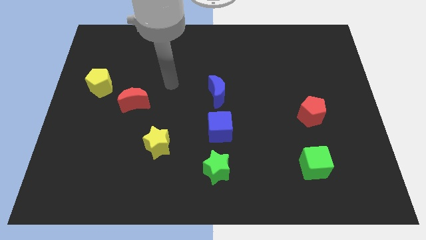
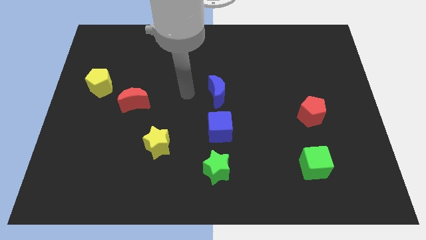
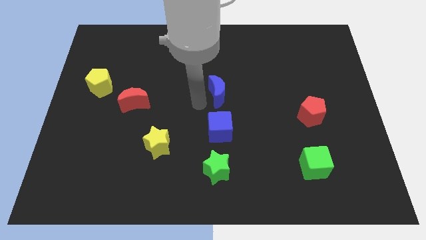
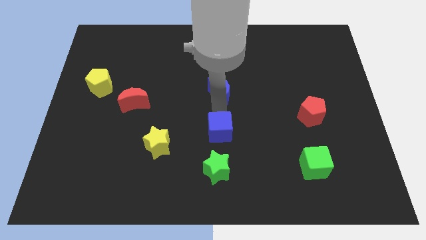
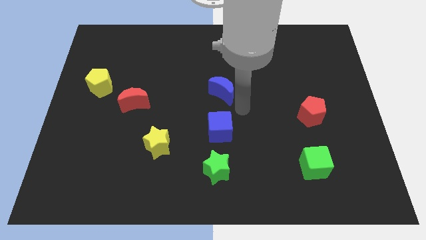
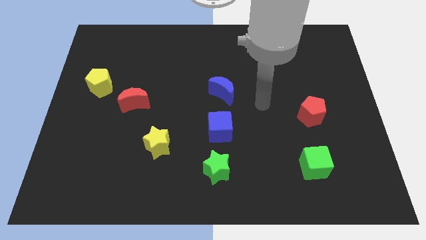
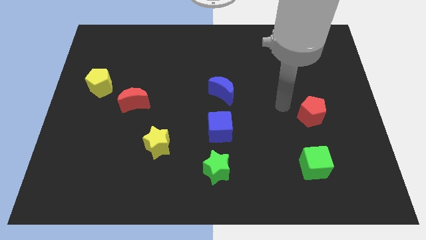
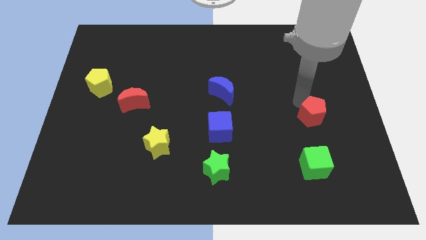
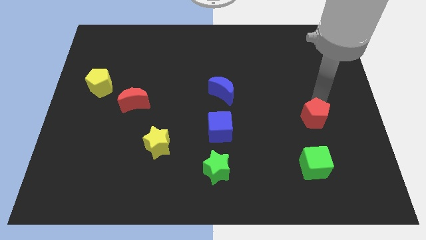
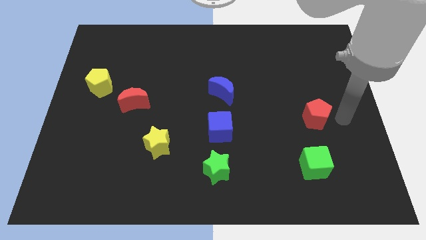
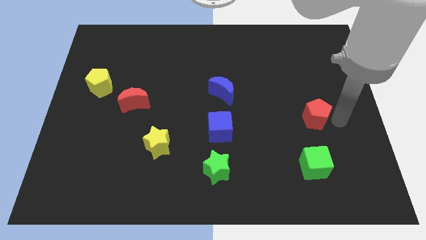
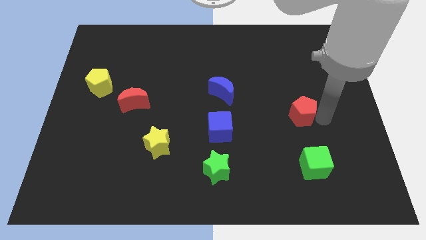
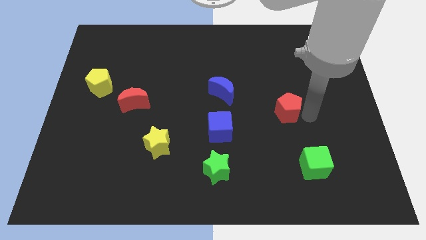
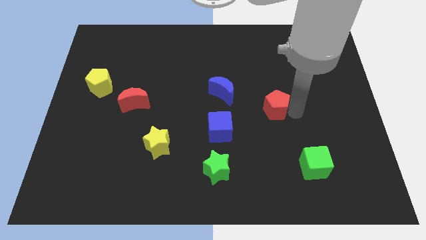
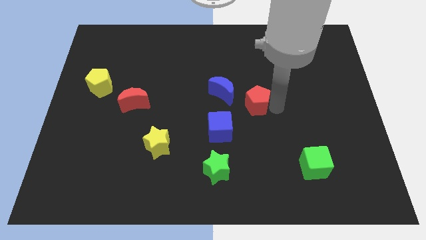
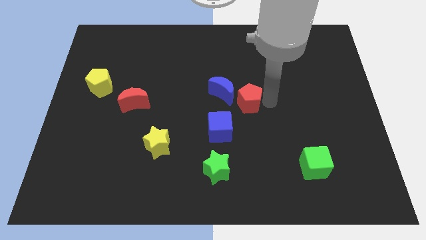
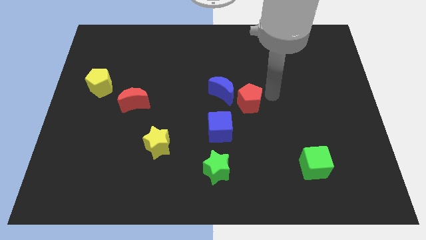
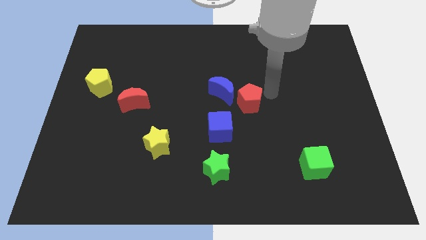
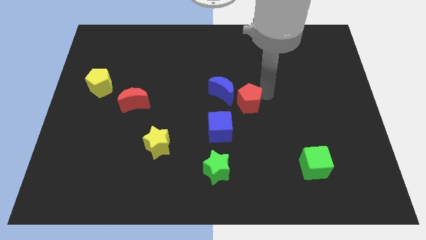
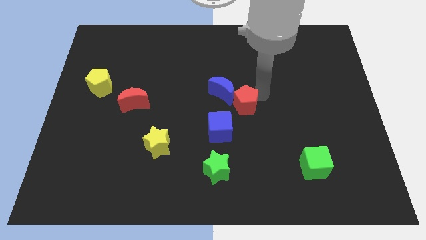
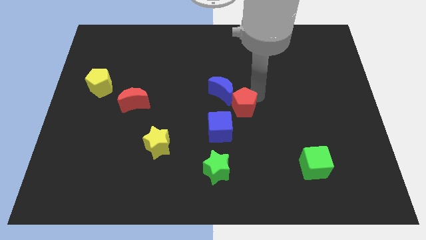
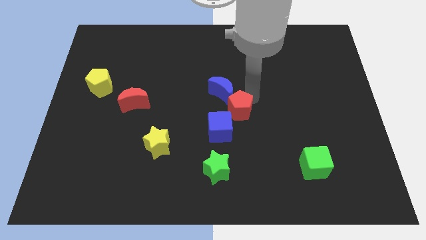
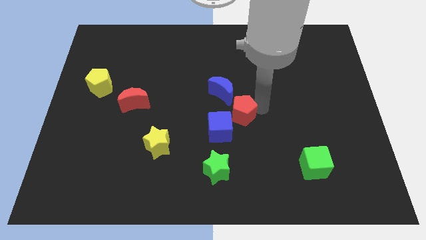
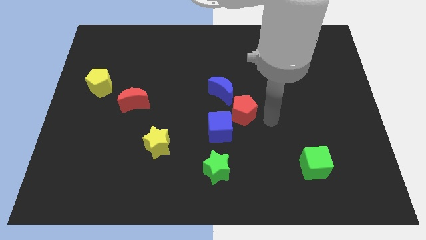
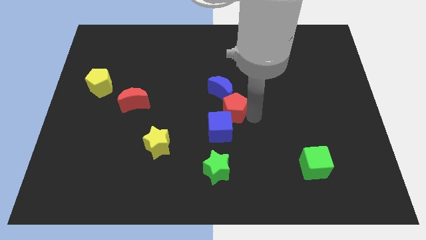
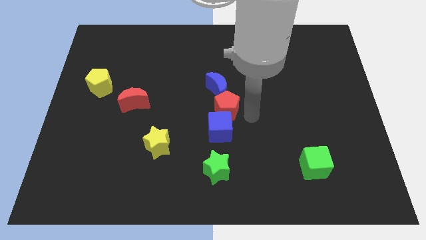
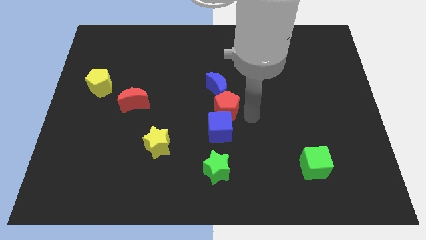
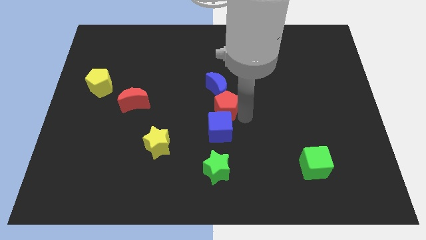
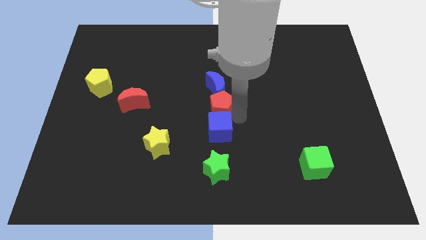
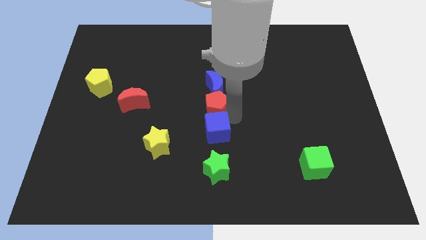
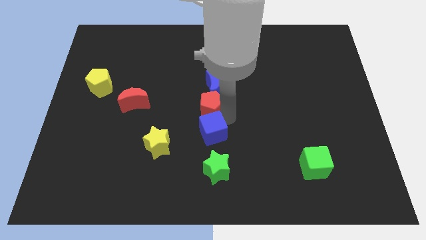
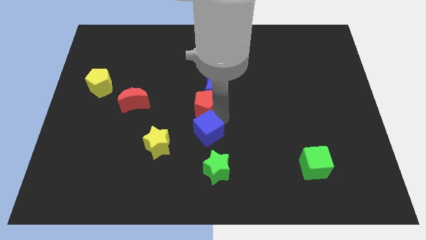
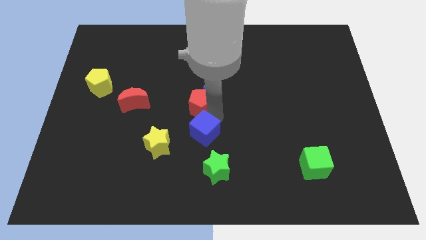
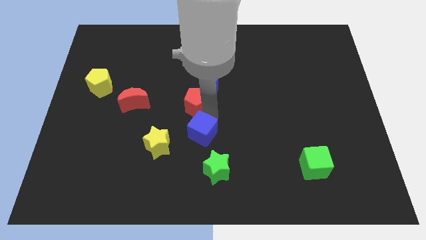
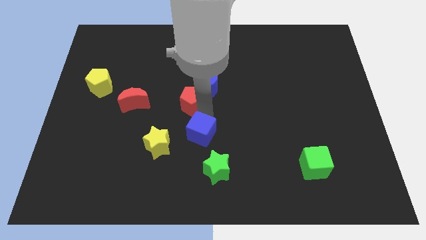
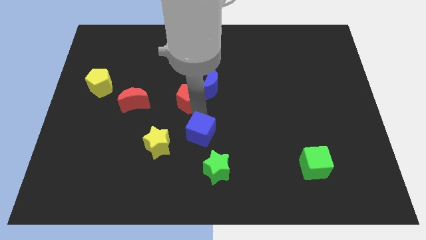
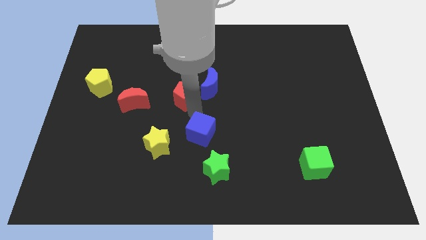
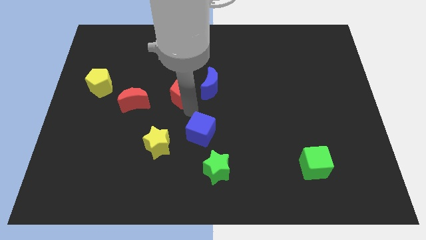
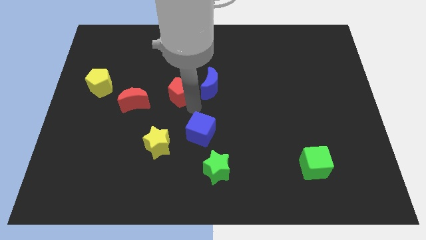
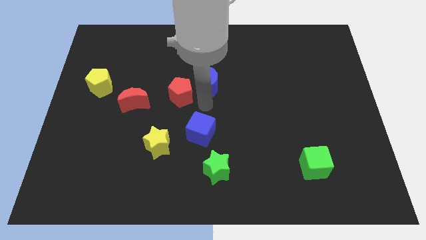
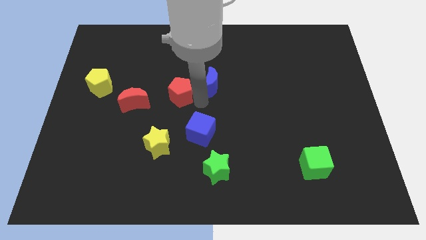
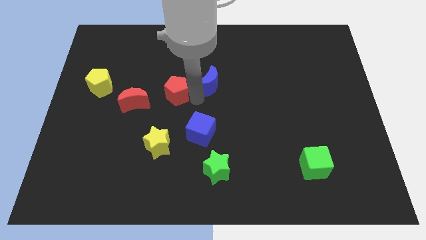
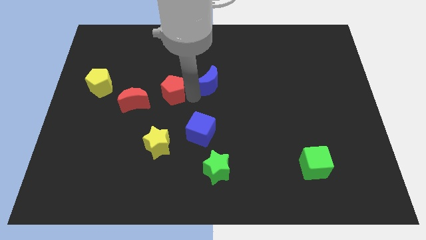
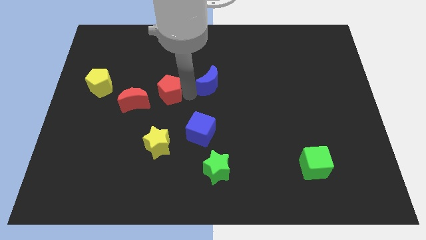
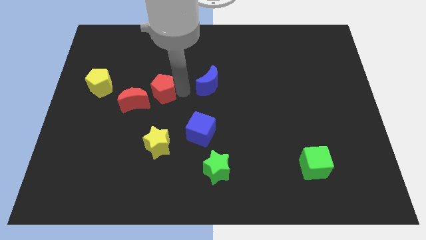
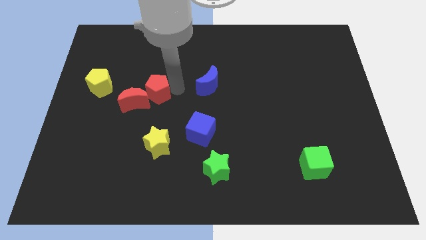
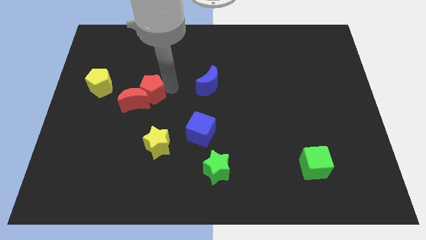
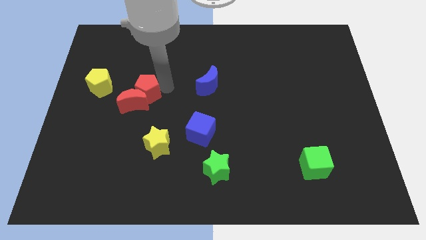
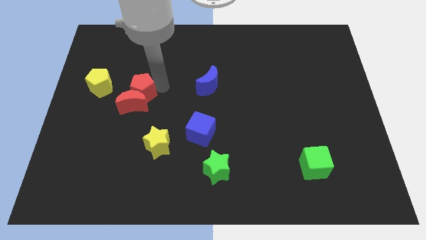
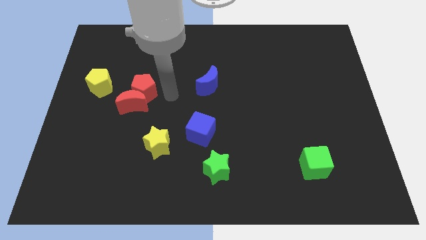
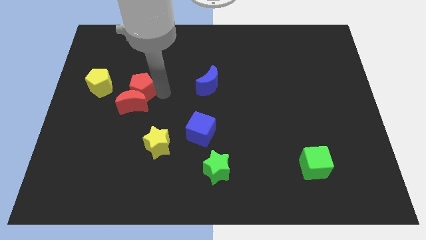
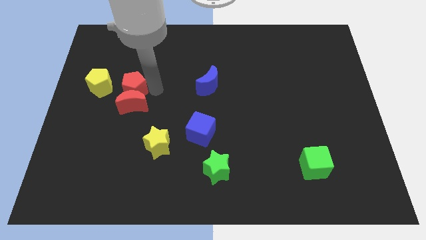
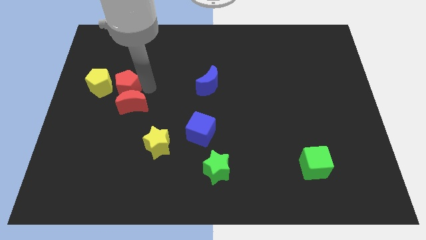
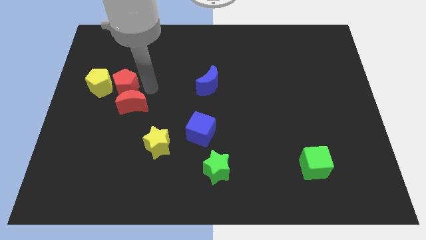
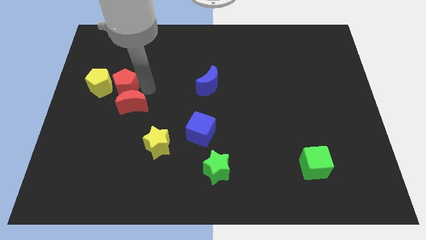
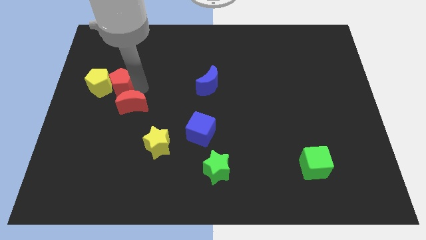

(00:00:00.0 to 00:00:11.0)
put the red pentagon to the yellow pentagon

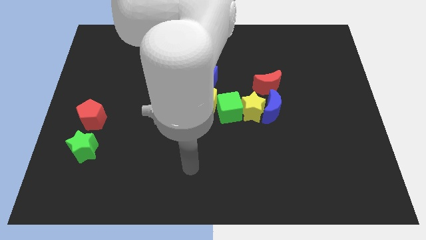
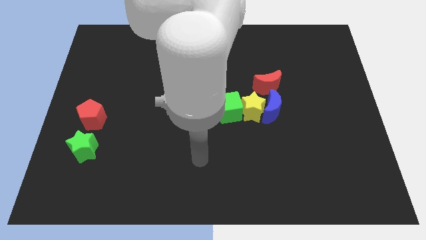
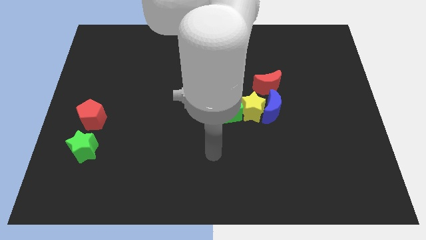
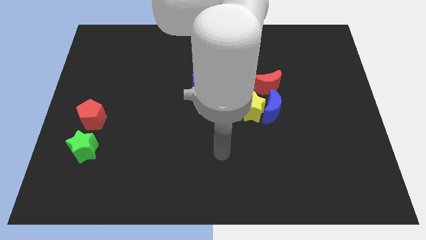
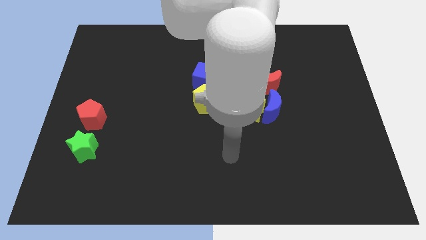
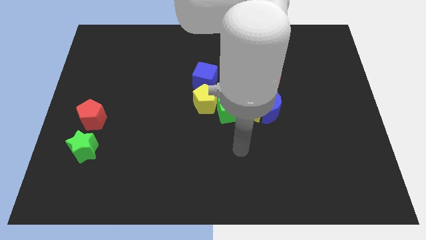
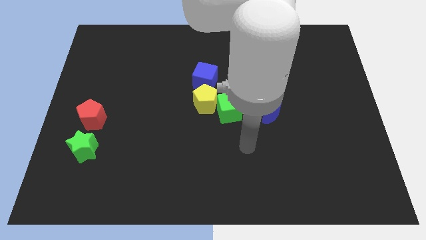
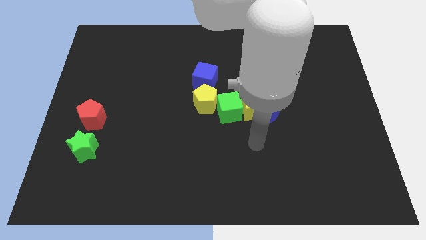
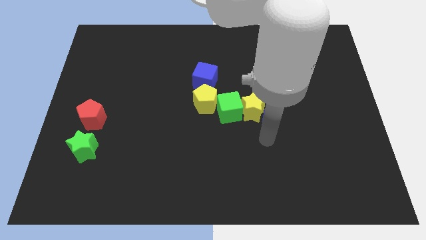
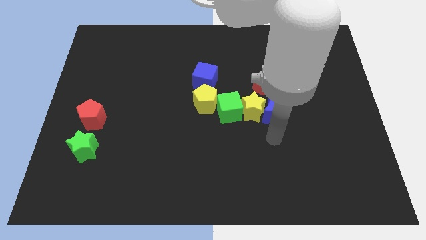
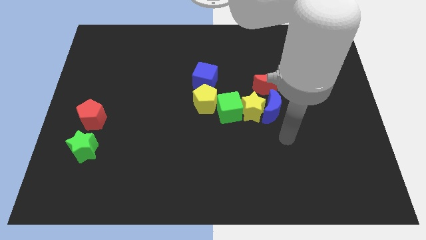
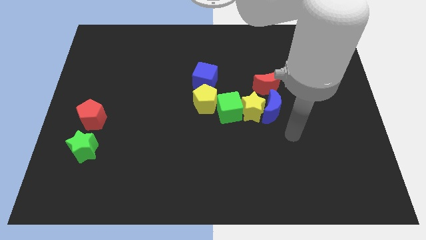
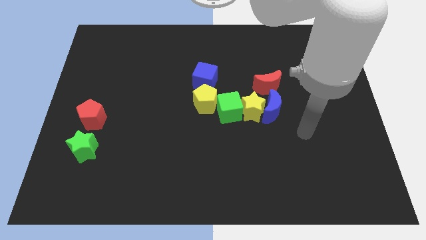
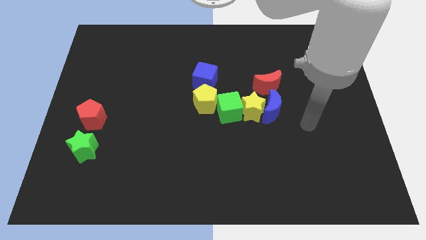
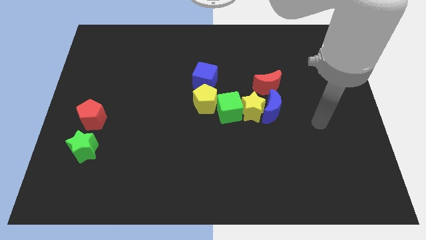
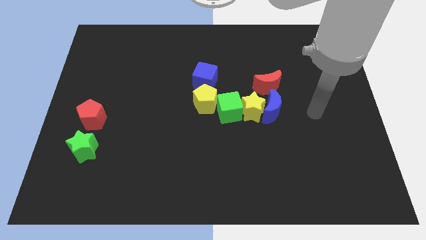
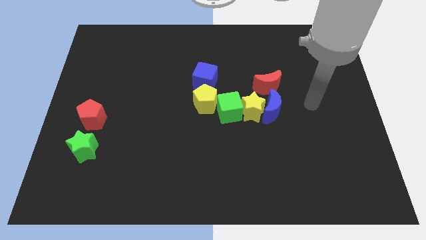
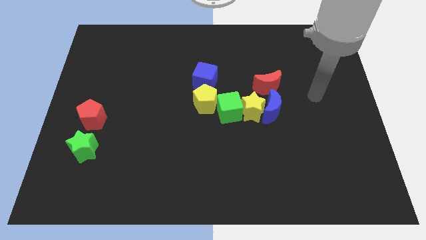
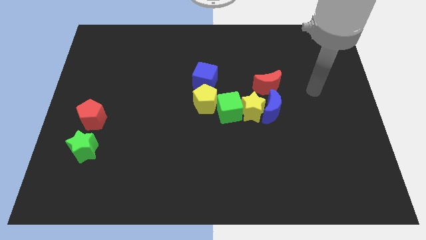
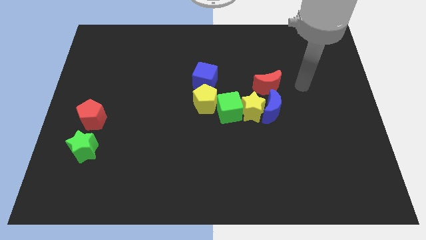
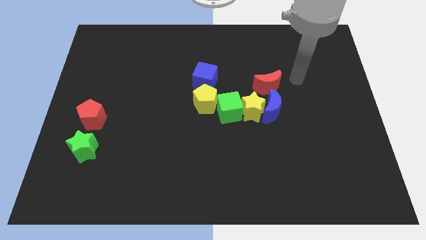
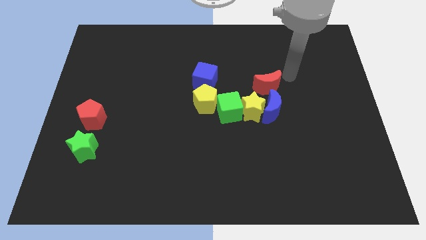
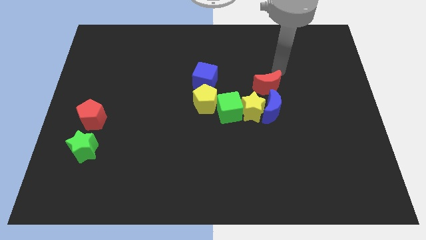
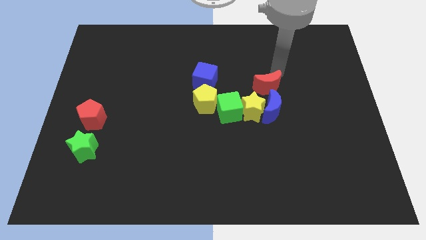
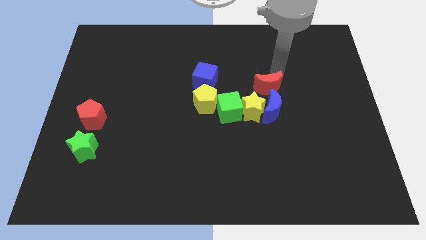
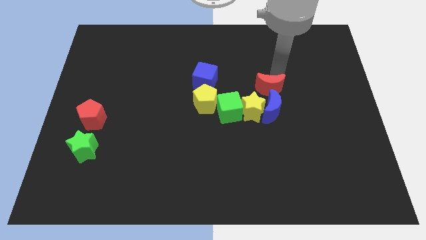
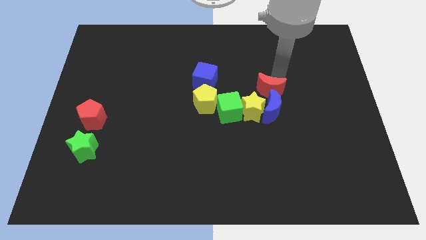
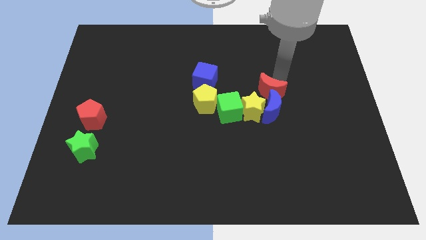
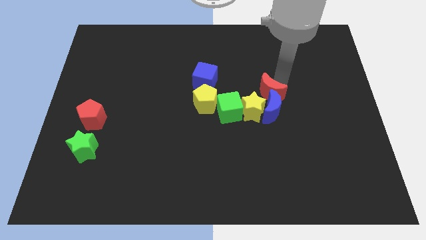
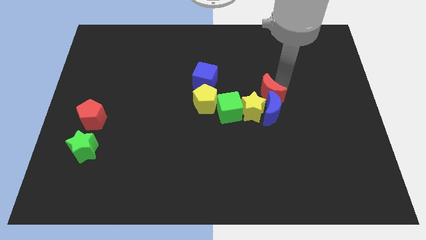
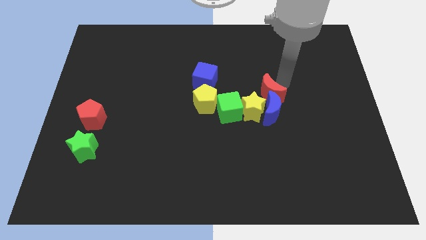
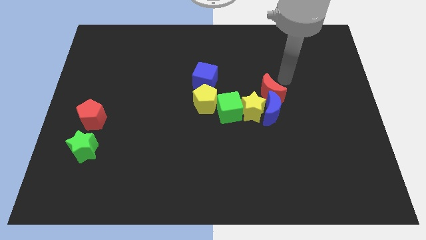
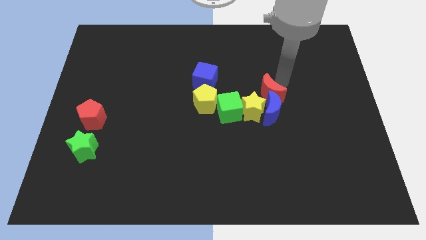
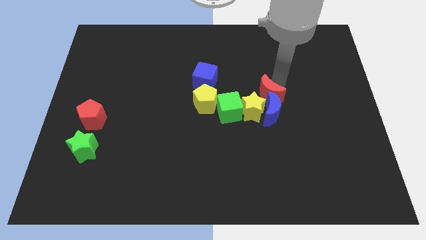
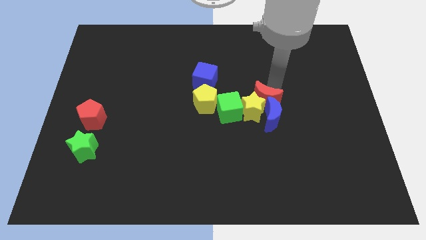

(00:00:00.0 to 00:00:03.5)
put the red moon to the yellow star
